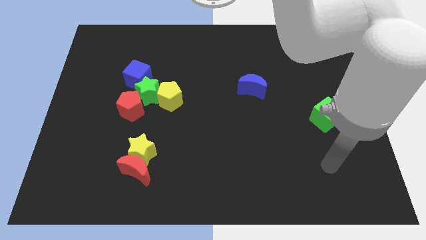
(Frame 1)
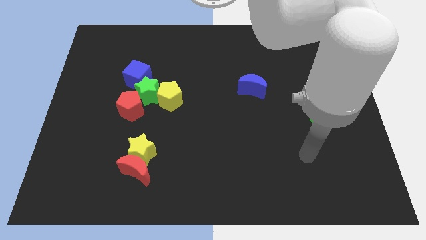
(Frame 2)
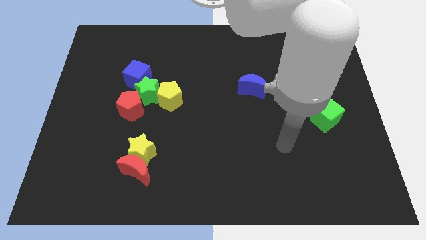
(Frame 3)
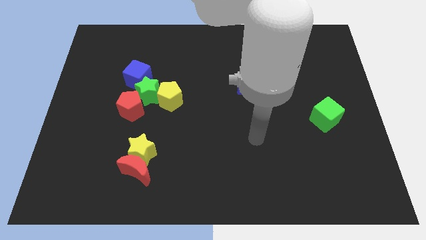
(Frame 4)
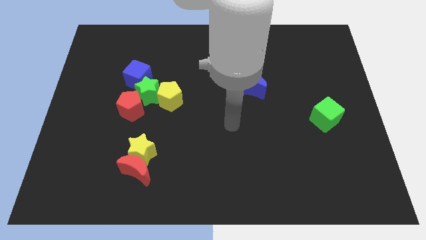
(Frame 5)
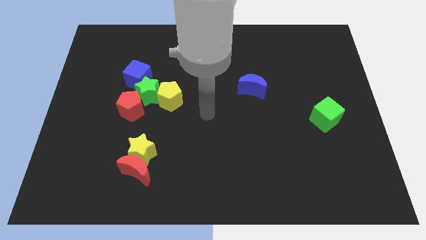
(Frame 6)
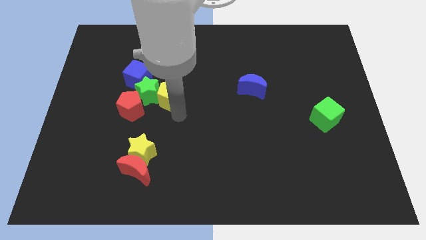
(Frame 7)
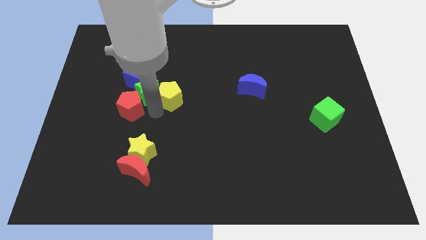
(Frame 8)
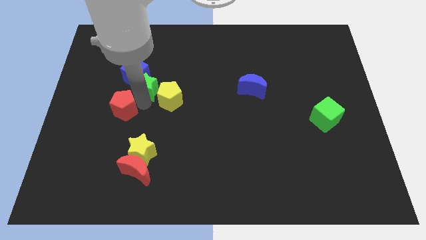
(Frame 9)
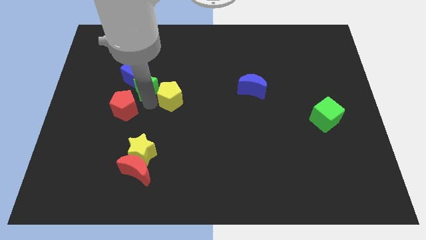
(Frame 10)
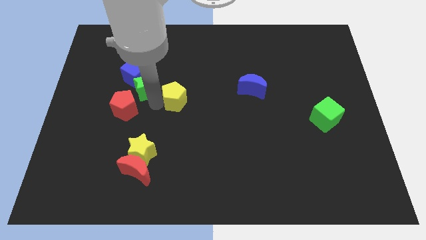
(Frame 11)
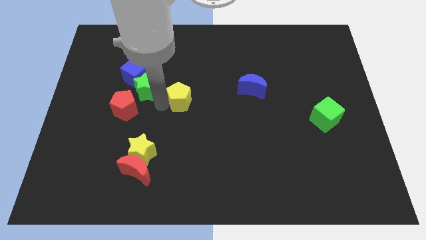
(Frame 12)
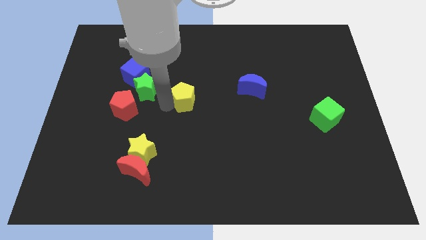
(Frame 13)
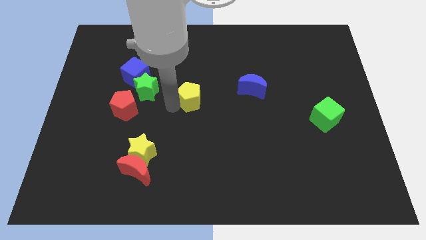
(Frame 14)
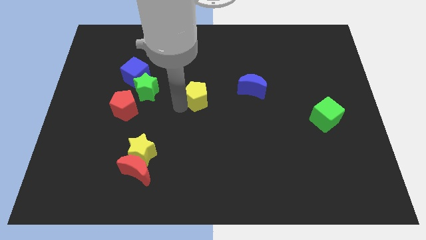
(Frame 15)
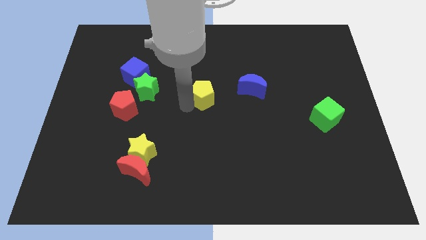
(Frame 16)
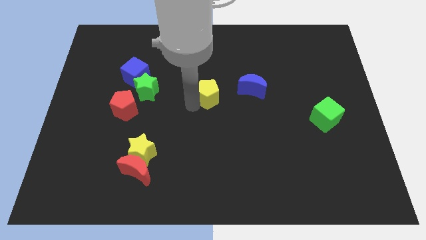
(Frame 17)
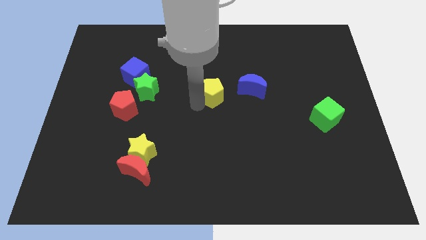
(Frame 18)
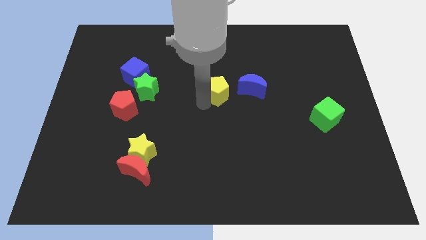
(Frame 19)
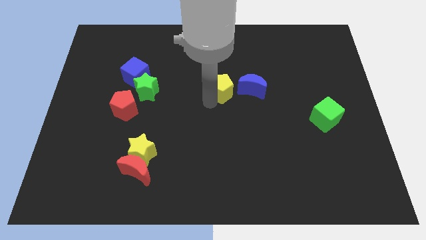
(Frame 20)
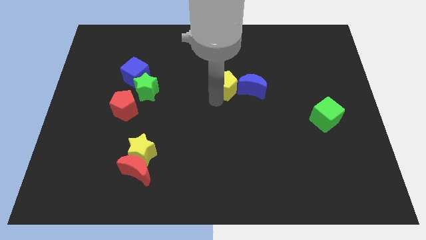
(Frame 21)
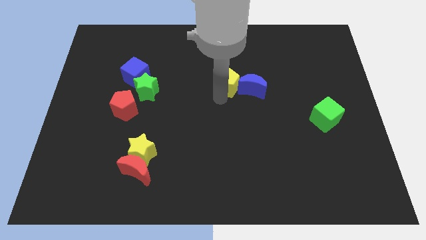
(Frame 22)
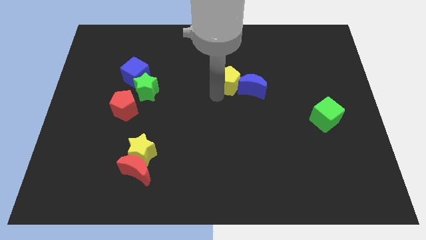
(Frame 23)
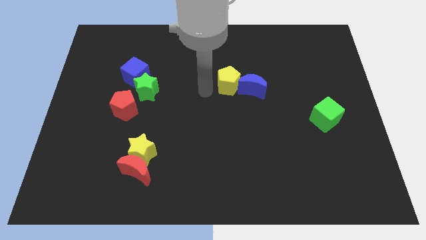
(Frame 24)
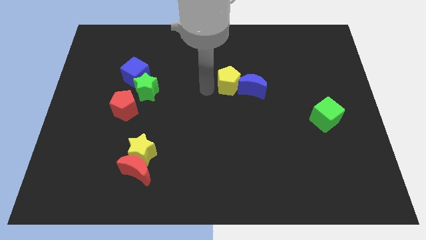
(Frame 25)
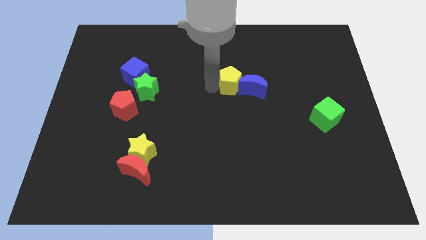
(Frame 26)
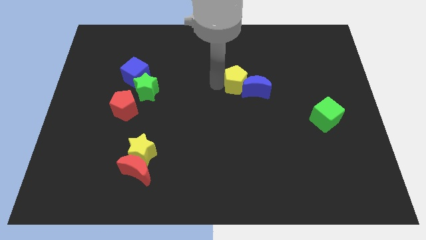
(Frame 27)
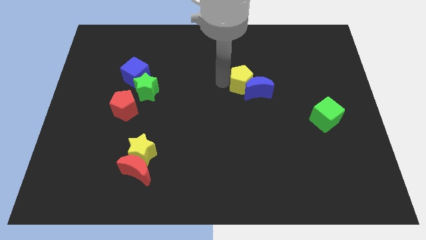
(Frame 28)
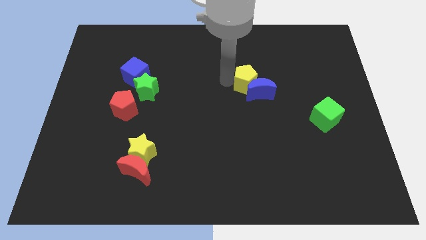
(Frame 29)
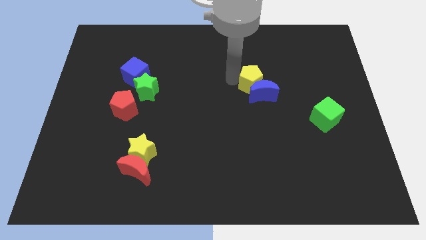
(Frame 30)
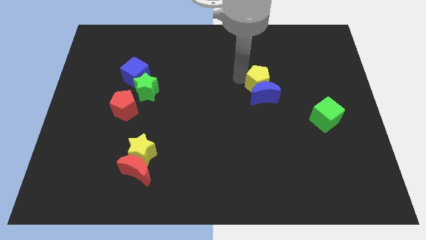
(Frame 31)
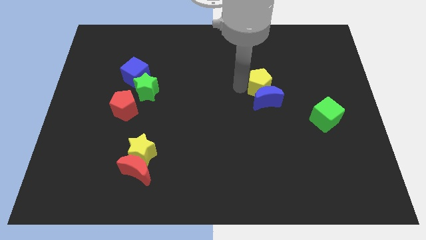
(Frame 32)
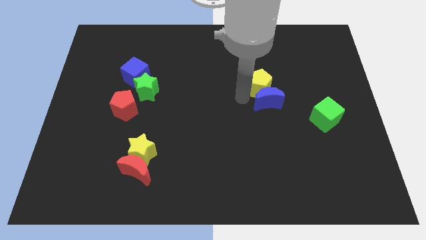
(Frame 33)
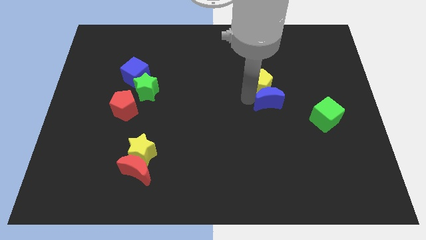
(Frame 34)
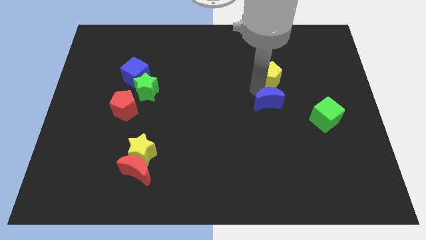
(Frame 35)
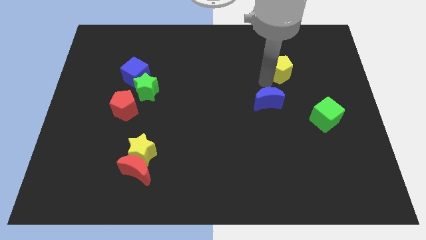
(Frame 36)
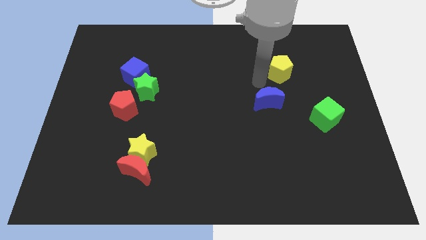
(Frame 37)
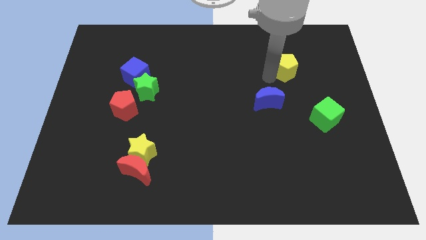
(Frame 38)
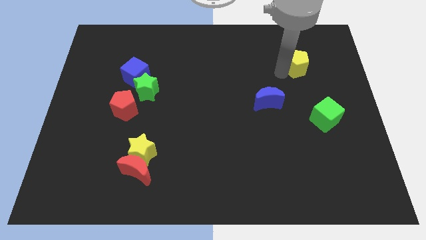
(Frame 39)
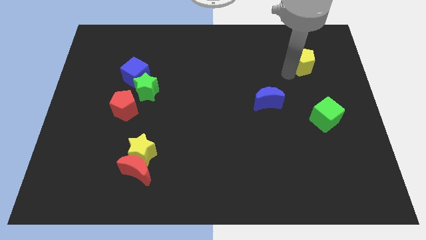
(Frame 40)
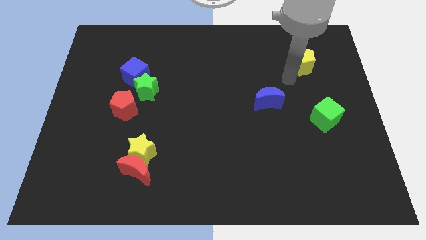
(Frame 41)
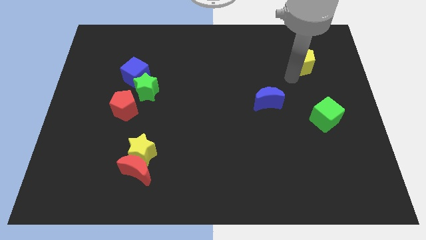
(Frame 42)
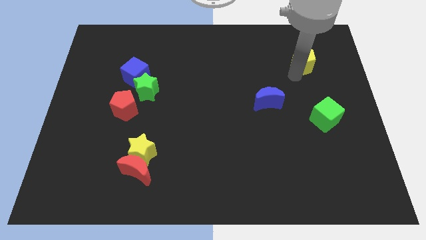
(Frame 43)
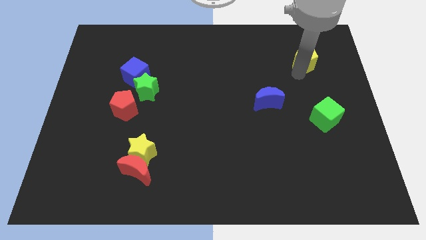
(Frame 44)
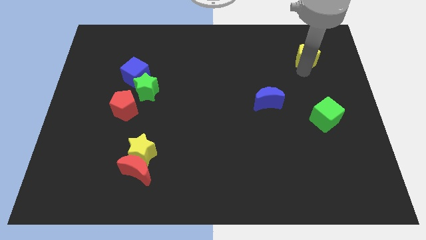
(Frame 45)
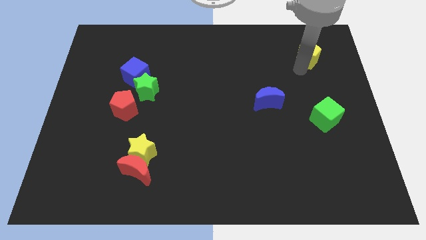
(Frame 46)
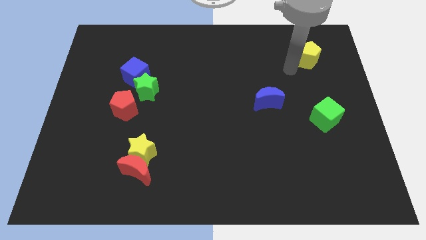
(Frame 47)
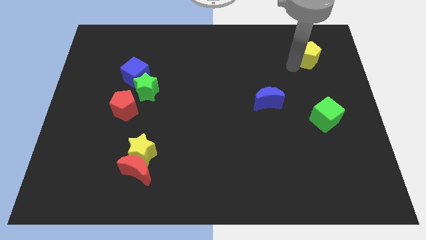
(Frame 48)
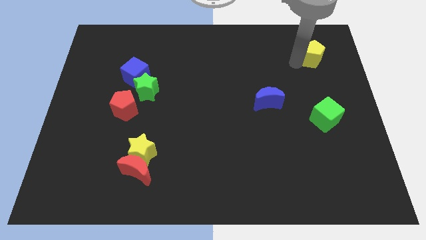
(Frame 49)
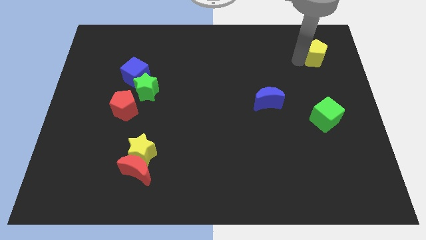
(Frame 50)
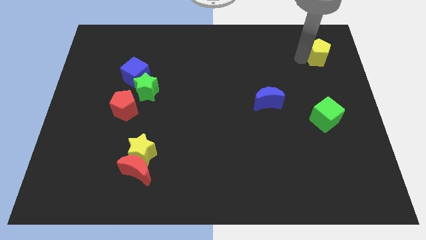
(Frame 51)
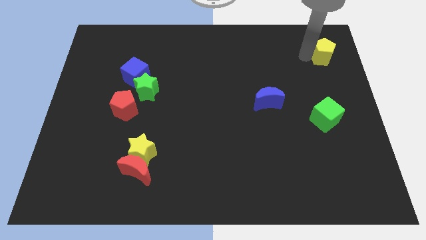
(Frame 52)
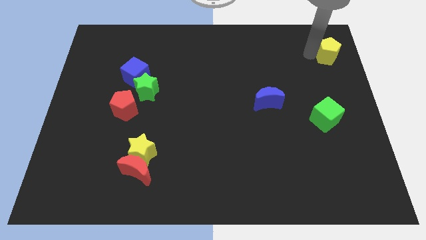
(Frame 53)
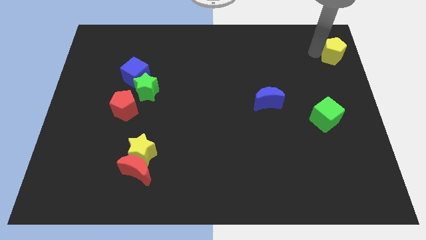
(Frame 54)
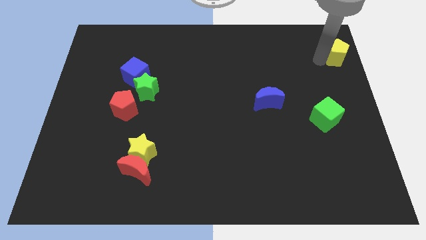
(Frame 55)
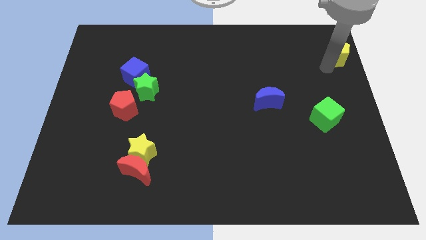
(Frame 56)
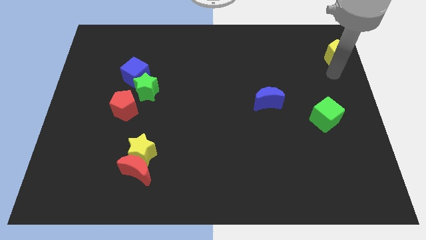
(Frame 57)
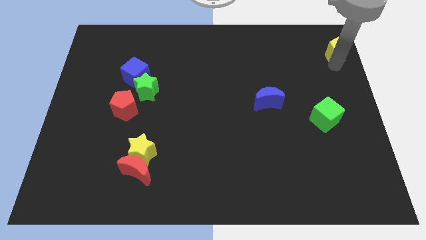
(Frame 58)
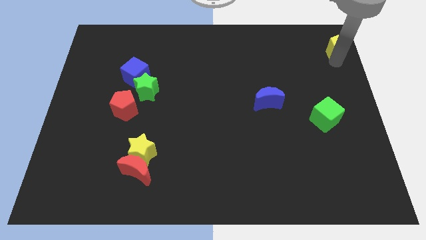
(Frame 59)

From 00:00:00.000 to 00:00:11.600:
push the yellow pentagon to the top right of the board
